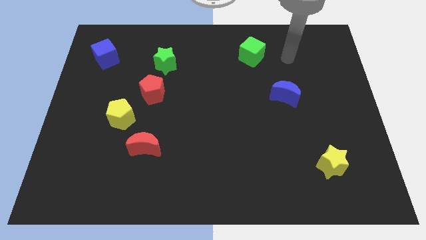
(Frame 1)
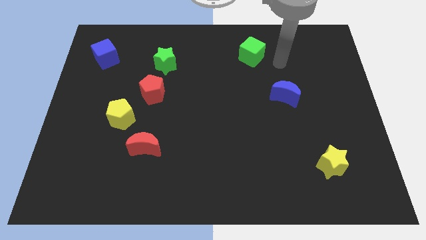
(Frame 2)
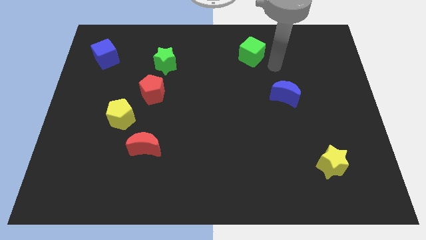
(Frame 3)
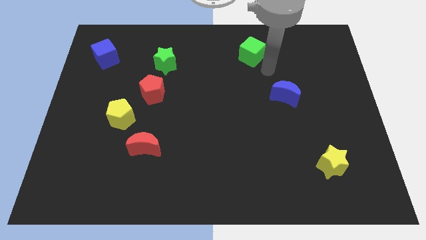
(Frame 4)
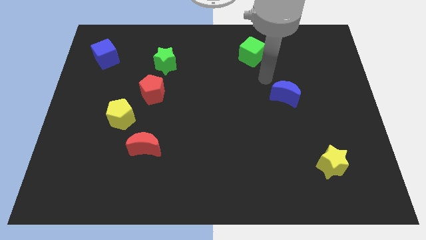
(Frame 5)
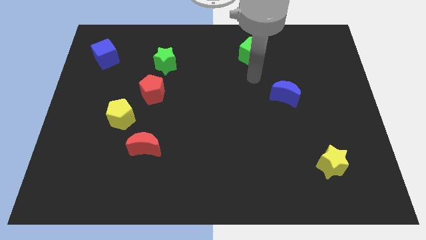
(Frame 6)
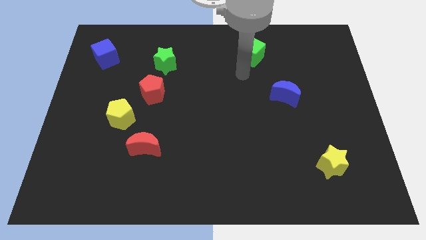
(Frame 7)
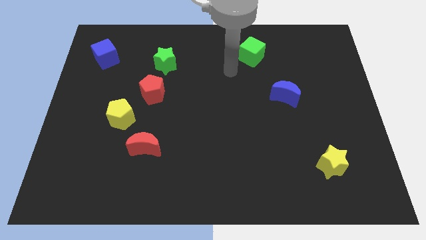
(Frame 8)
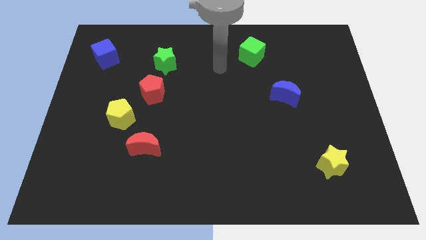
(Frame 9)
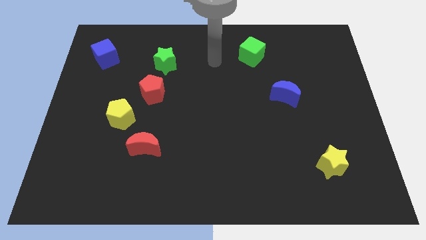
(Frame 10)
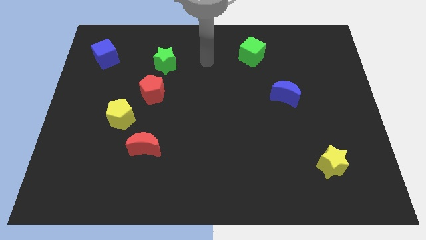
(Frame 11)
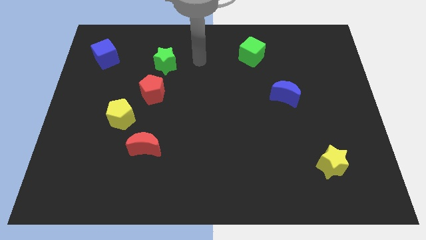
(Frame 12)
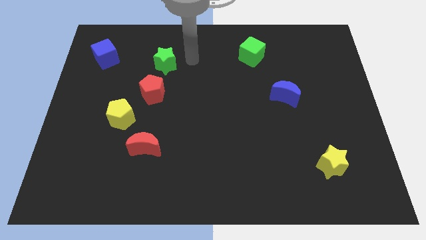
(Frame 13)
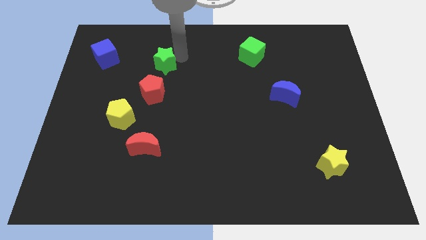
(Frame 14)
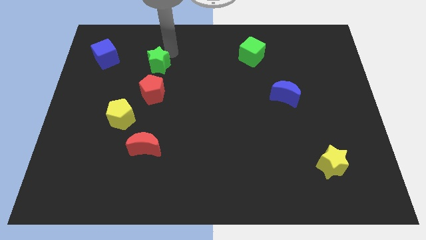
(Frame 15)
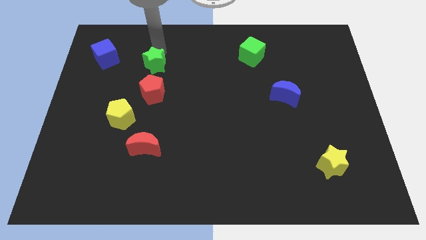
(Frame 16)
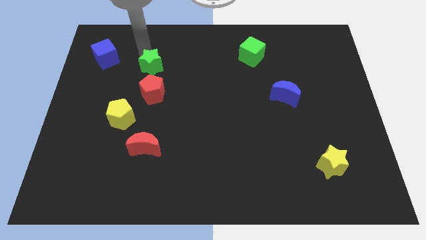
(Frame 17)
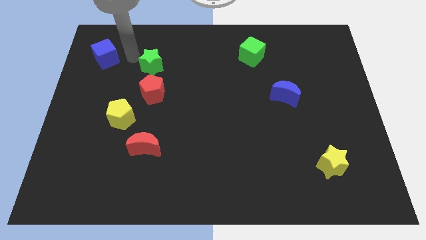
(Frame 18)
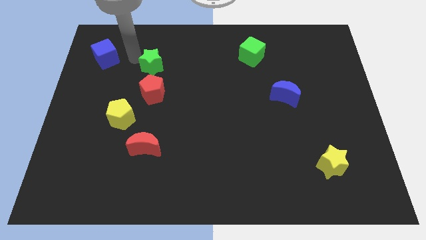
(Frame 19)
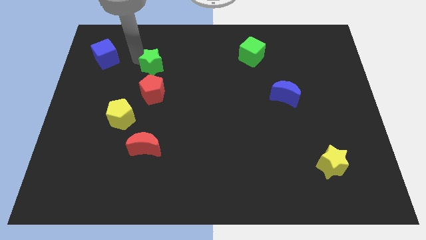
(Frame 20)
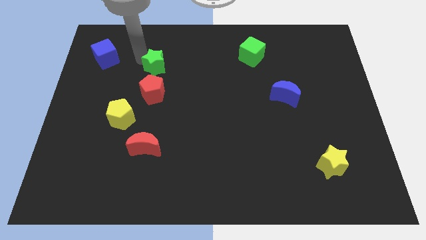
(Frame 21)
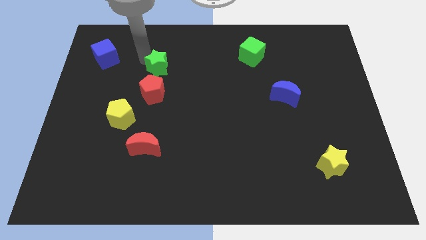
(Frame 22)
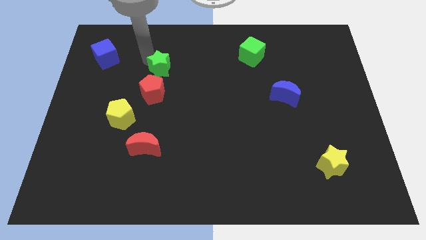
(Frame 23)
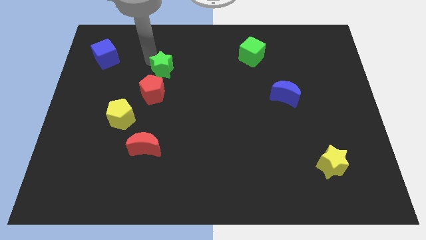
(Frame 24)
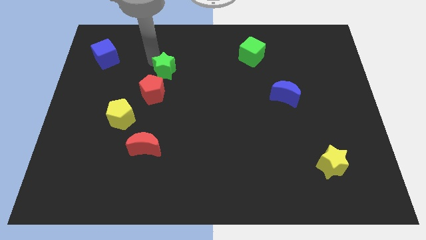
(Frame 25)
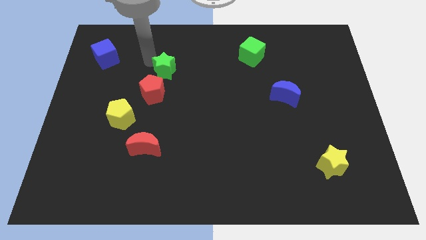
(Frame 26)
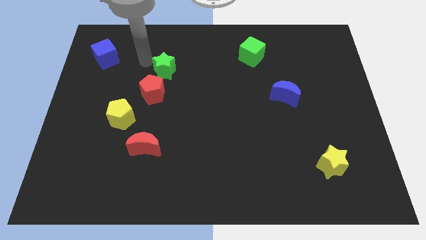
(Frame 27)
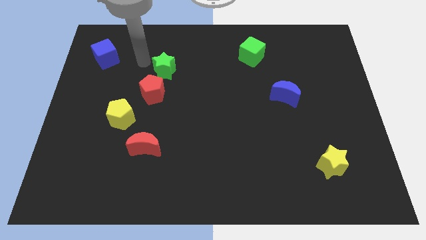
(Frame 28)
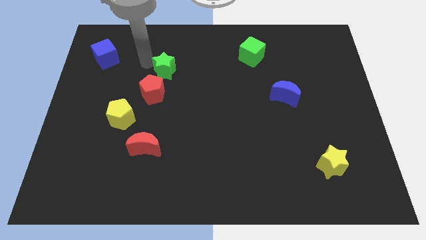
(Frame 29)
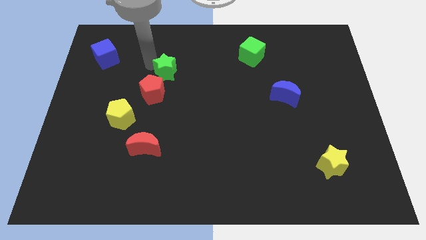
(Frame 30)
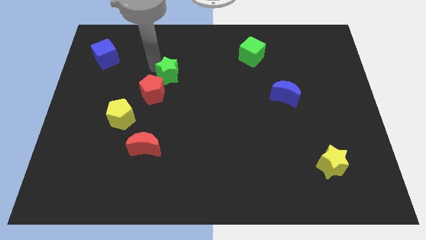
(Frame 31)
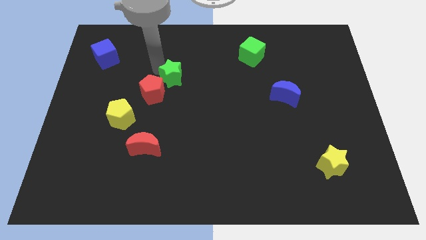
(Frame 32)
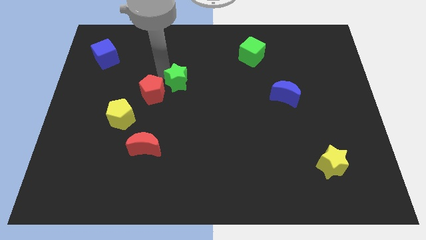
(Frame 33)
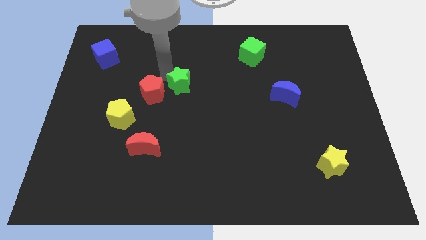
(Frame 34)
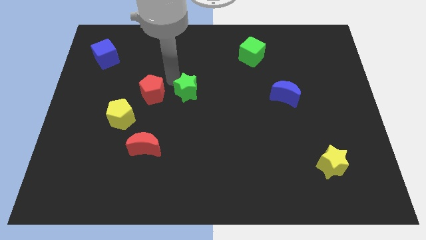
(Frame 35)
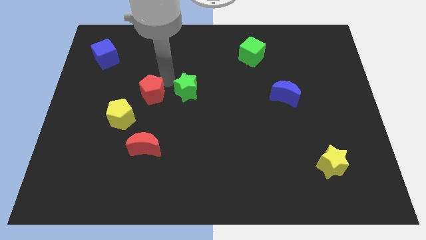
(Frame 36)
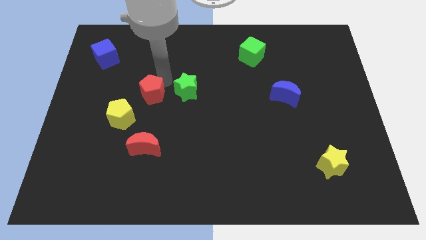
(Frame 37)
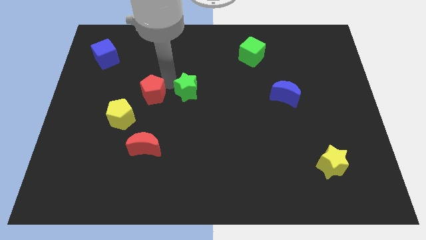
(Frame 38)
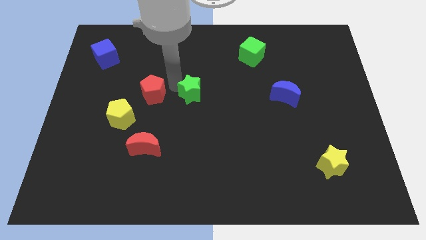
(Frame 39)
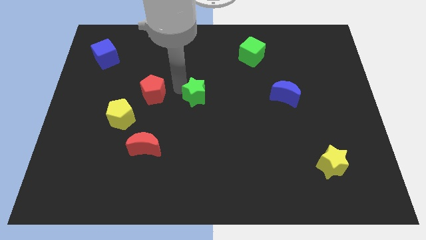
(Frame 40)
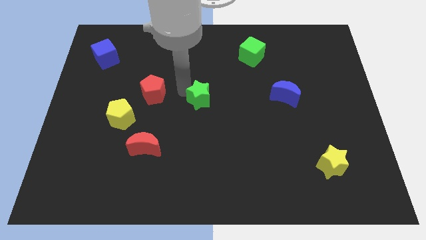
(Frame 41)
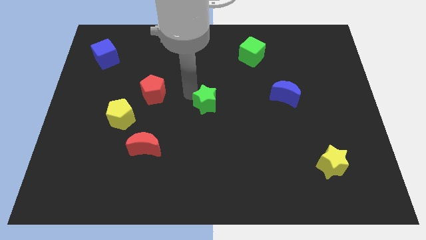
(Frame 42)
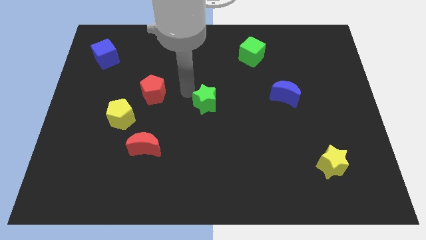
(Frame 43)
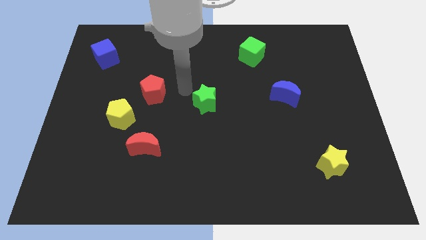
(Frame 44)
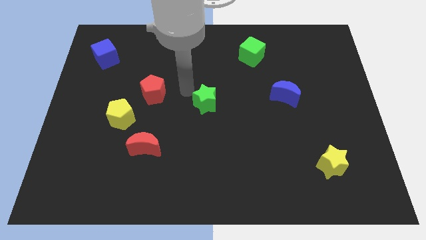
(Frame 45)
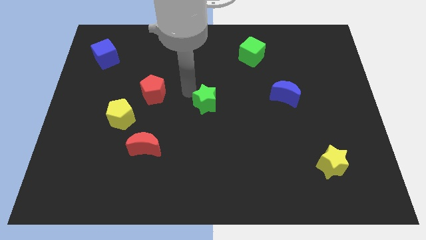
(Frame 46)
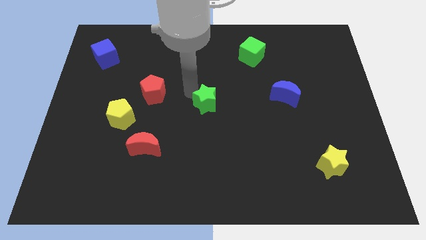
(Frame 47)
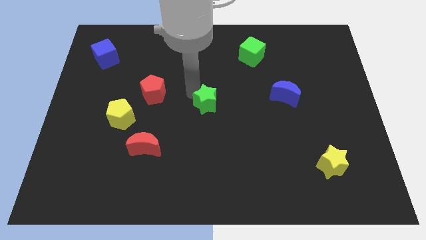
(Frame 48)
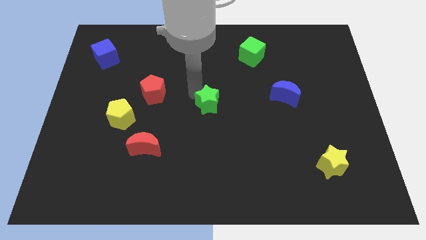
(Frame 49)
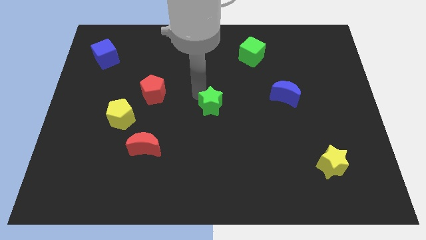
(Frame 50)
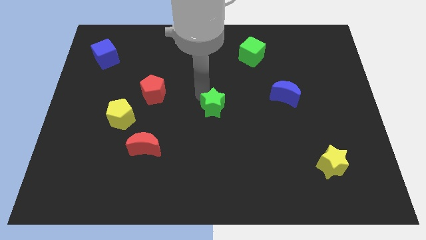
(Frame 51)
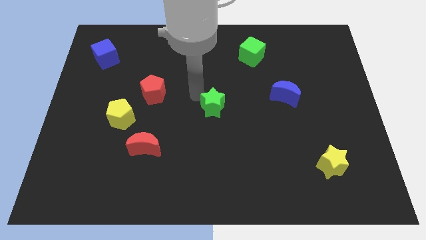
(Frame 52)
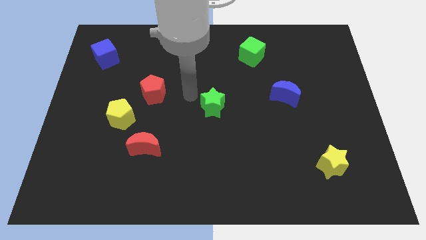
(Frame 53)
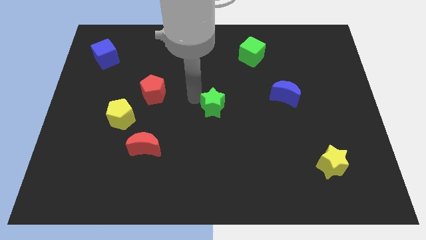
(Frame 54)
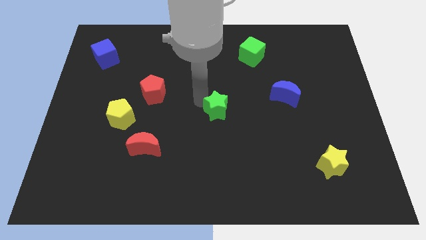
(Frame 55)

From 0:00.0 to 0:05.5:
move the green star downwards and to the right

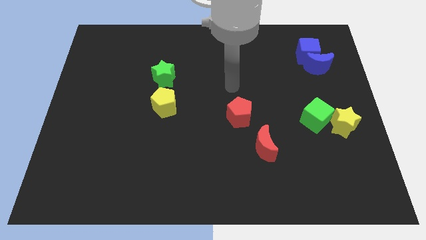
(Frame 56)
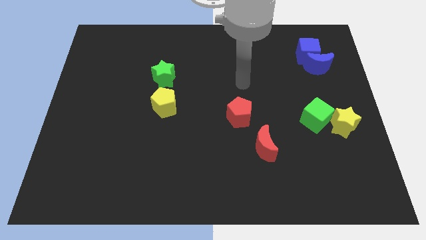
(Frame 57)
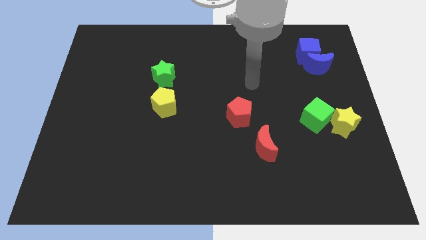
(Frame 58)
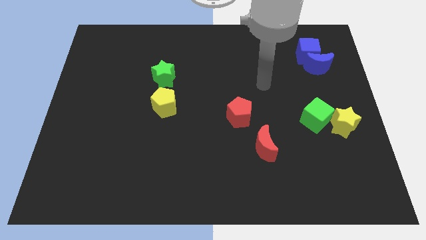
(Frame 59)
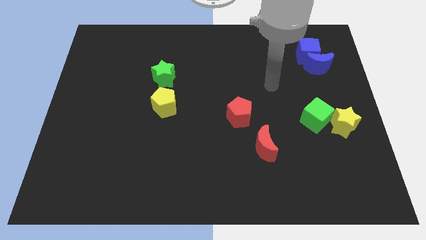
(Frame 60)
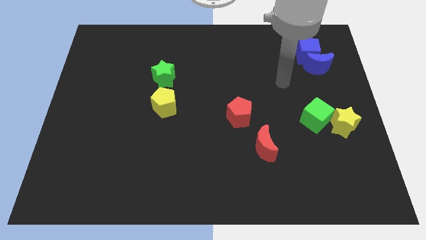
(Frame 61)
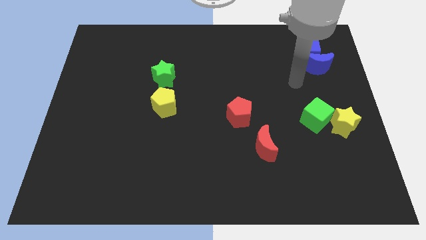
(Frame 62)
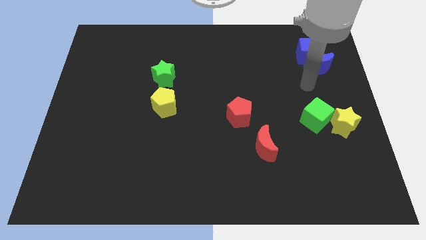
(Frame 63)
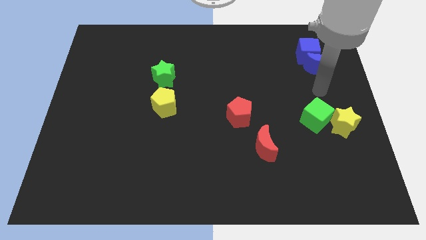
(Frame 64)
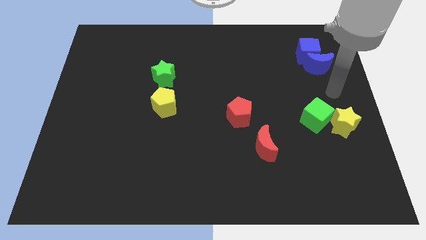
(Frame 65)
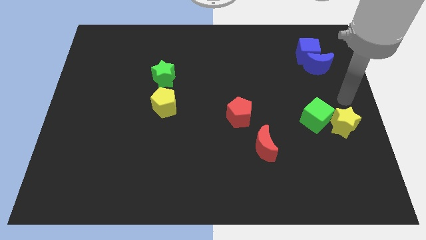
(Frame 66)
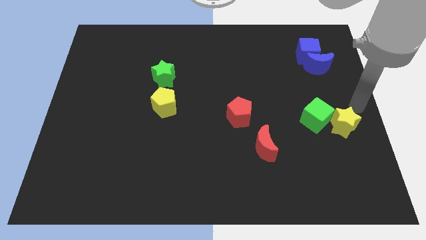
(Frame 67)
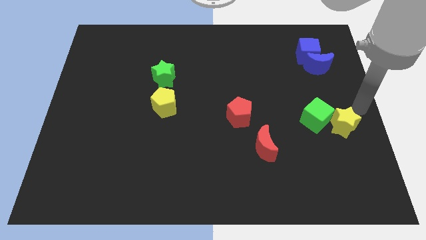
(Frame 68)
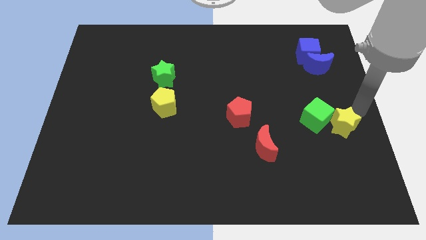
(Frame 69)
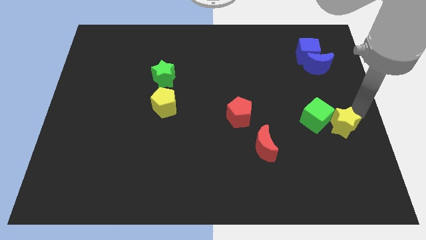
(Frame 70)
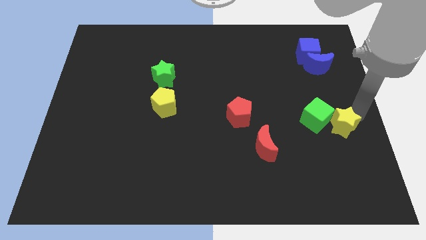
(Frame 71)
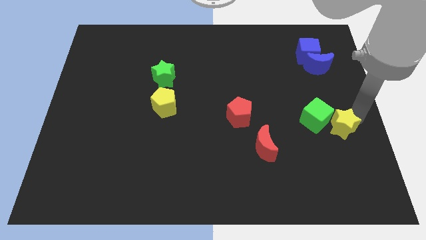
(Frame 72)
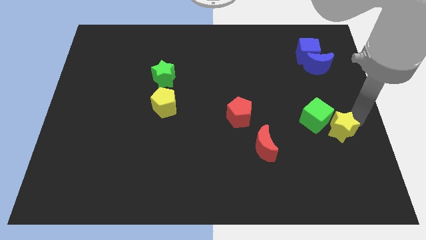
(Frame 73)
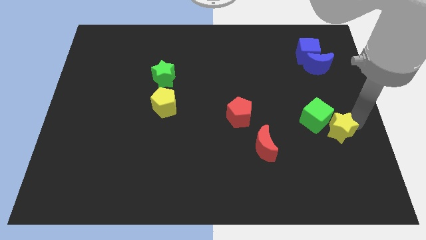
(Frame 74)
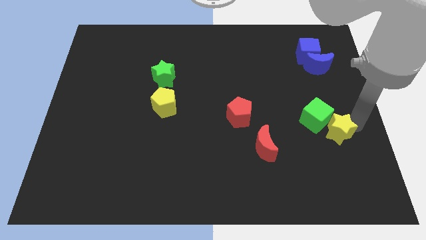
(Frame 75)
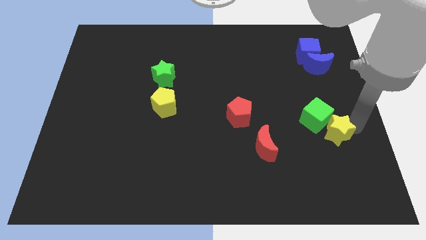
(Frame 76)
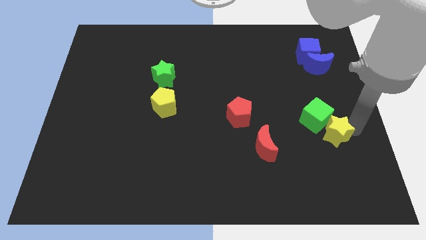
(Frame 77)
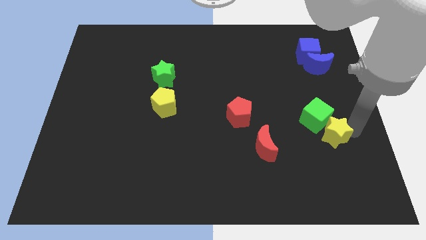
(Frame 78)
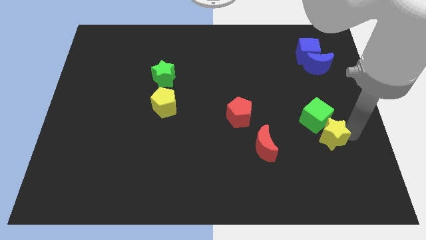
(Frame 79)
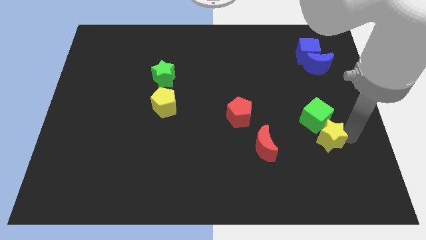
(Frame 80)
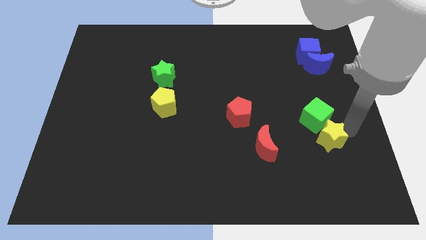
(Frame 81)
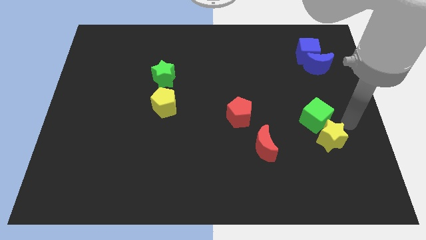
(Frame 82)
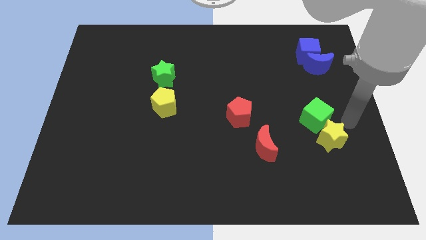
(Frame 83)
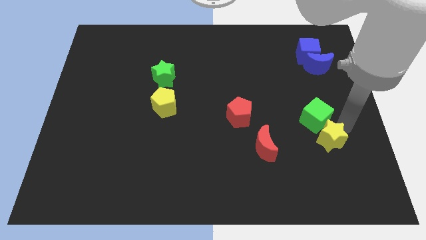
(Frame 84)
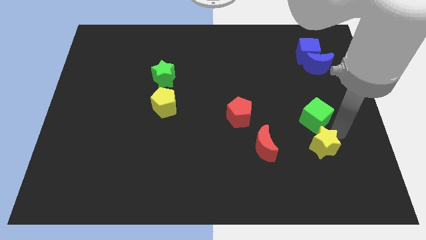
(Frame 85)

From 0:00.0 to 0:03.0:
move the yellow star slightly downwards and then left
